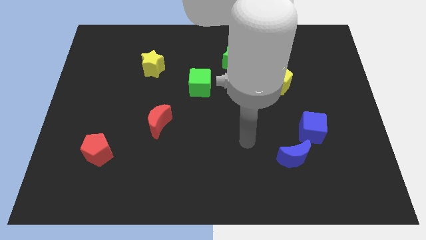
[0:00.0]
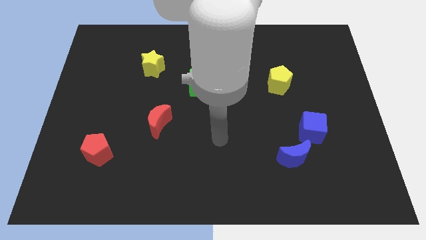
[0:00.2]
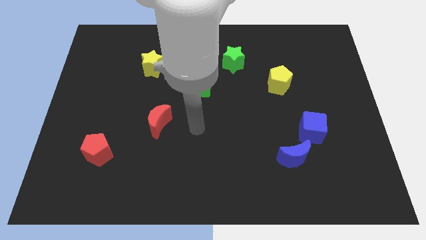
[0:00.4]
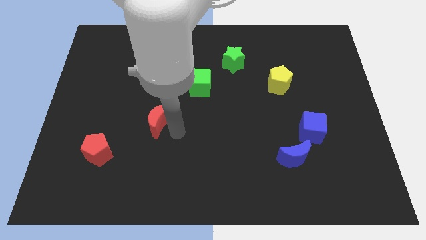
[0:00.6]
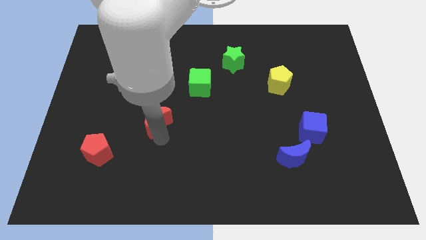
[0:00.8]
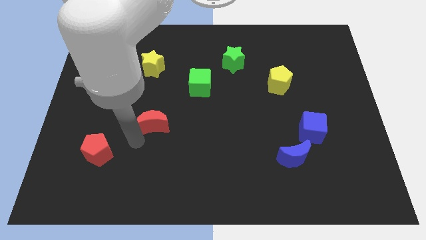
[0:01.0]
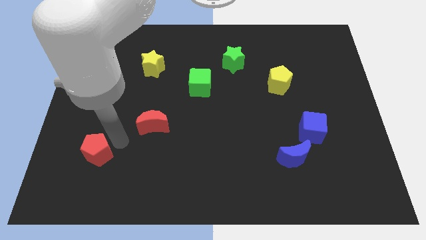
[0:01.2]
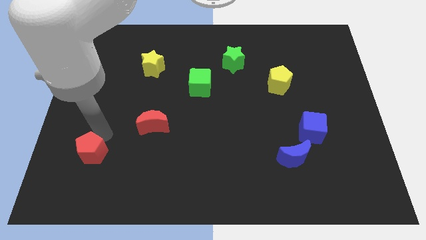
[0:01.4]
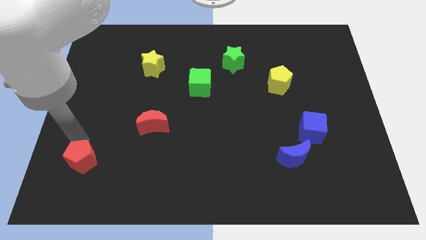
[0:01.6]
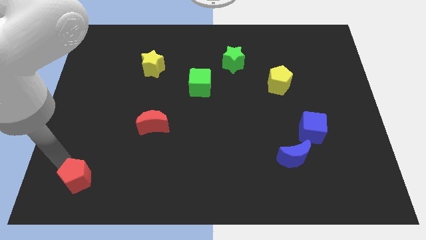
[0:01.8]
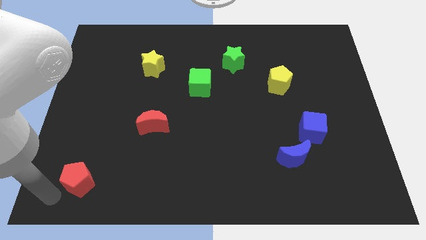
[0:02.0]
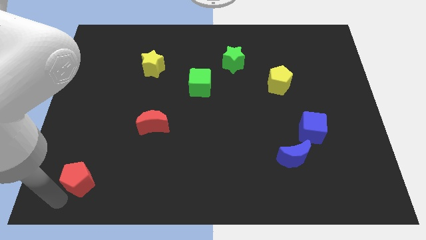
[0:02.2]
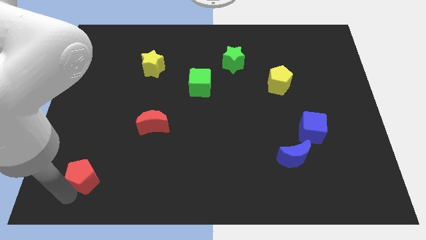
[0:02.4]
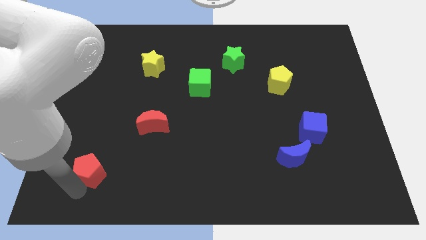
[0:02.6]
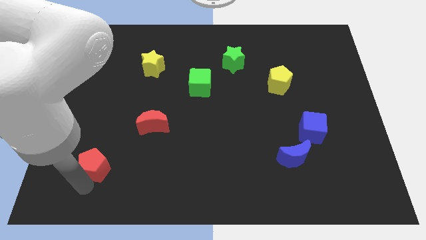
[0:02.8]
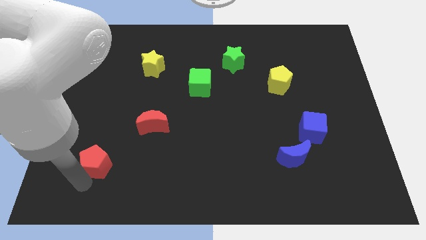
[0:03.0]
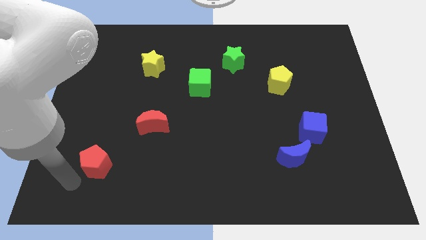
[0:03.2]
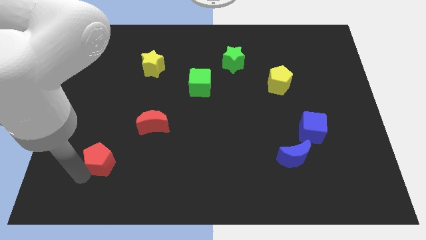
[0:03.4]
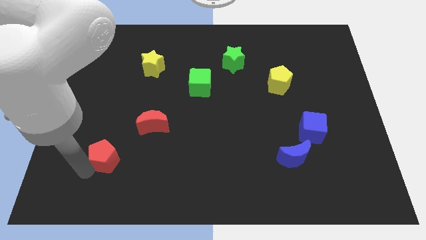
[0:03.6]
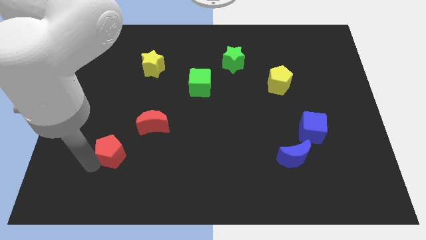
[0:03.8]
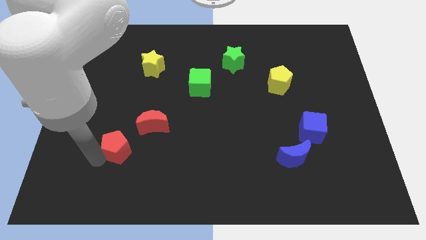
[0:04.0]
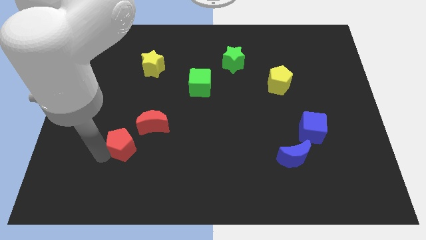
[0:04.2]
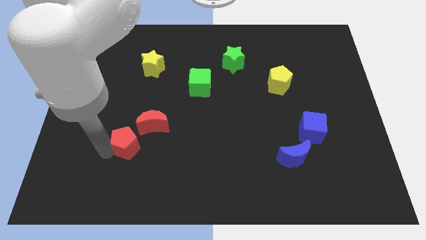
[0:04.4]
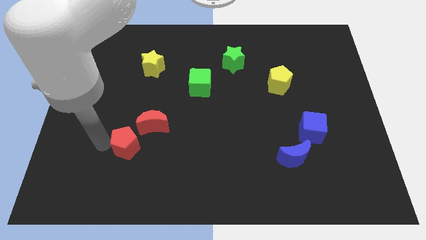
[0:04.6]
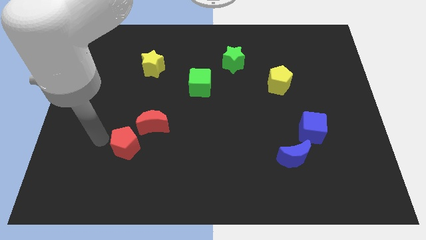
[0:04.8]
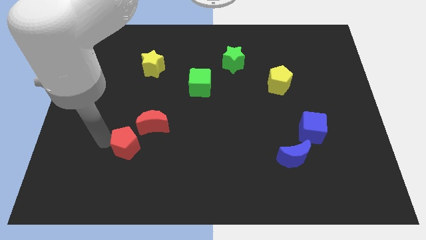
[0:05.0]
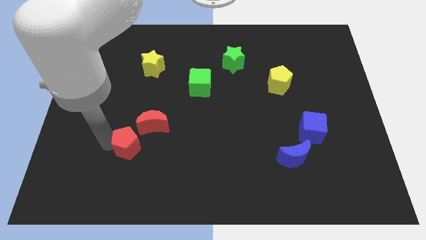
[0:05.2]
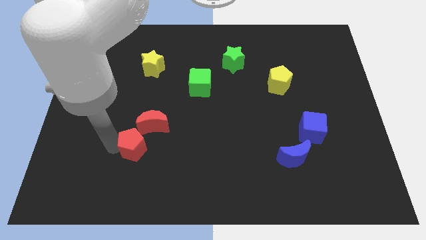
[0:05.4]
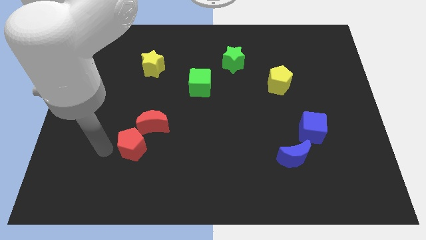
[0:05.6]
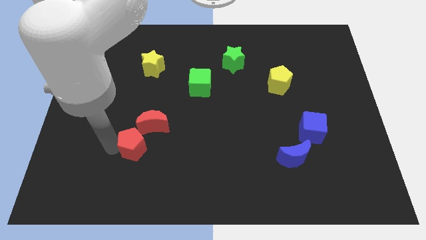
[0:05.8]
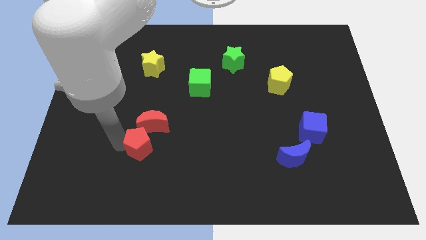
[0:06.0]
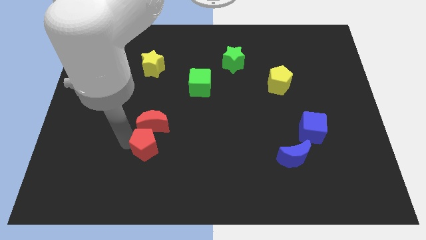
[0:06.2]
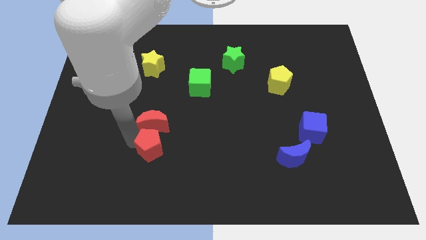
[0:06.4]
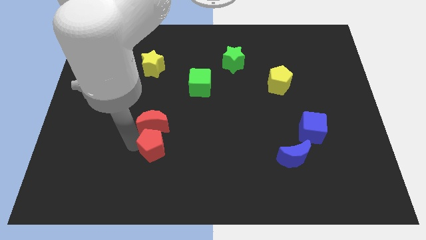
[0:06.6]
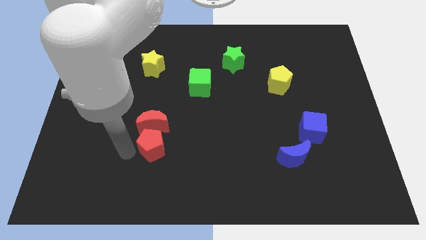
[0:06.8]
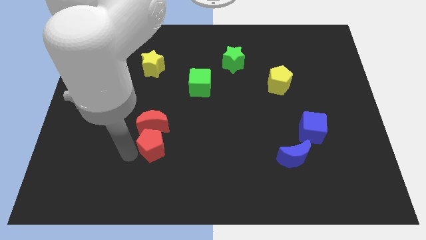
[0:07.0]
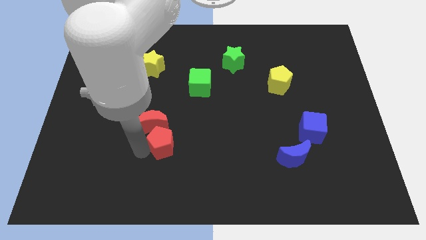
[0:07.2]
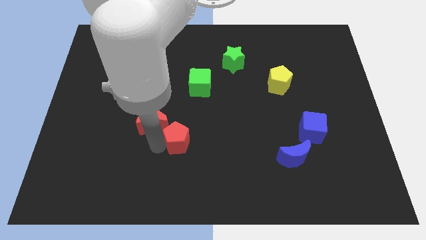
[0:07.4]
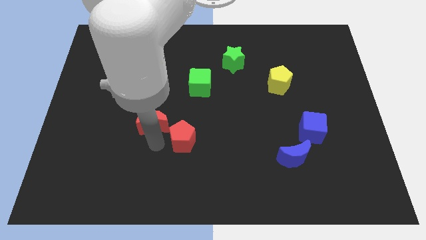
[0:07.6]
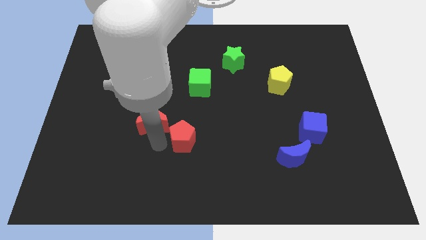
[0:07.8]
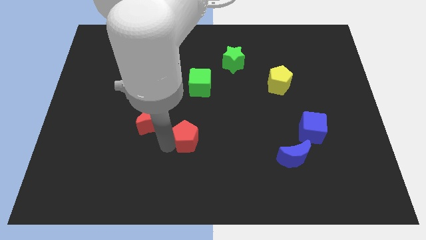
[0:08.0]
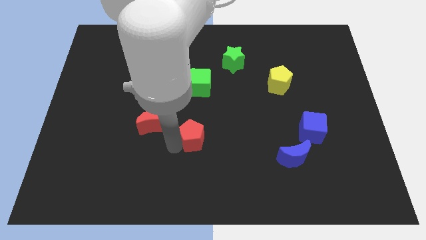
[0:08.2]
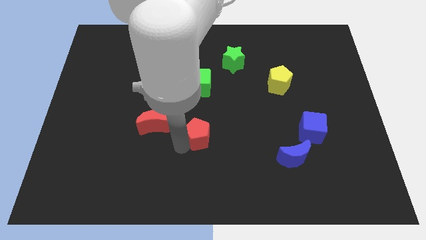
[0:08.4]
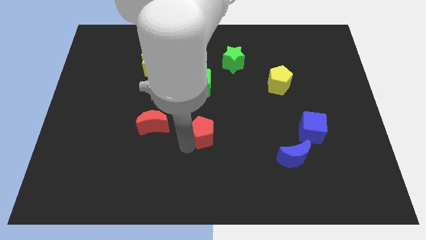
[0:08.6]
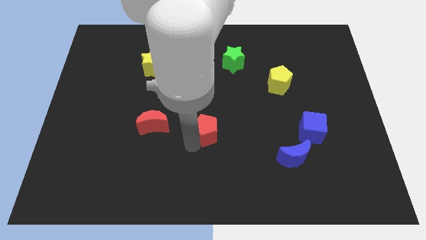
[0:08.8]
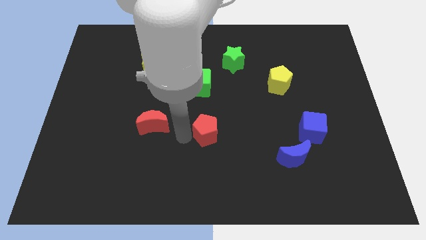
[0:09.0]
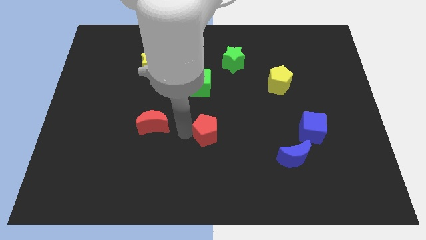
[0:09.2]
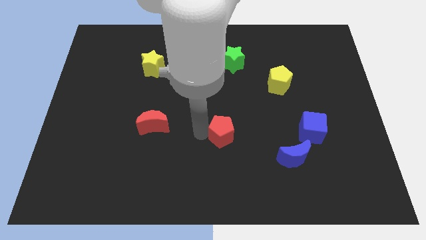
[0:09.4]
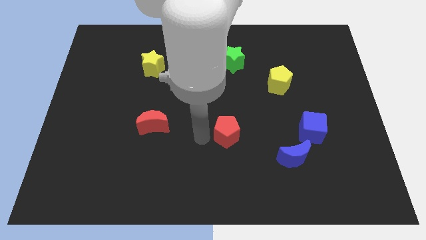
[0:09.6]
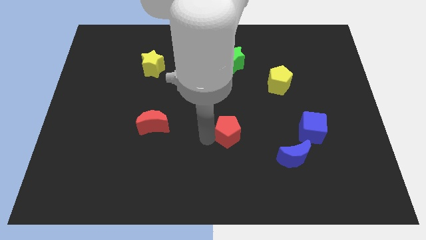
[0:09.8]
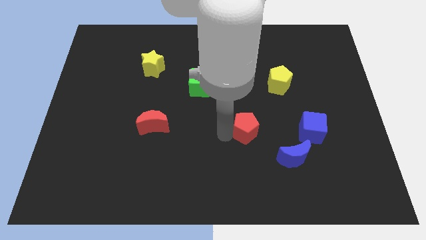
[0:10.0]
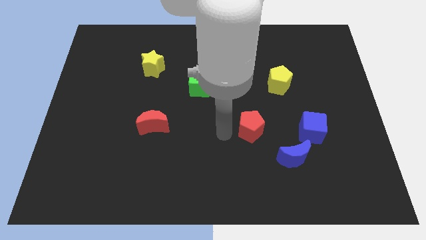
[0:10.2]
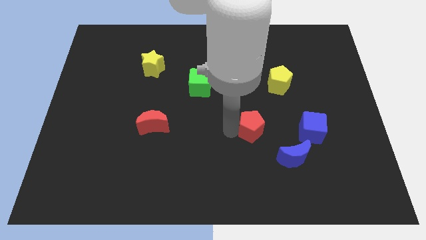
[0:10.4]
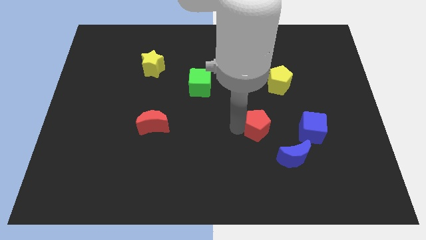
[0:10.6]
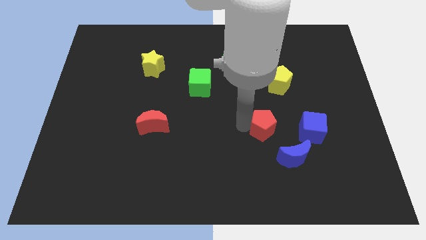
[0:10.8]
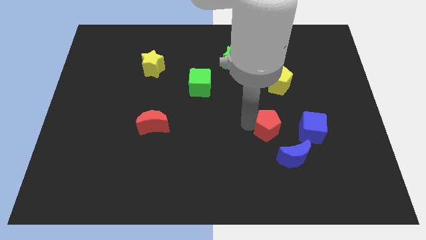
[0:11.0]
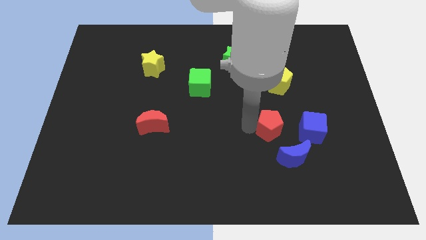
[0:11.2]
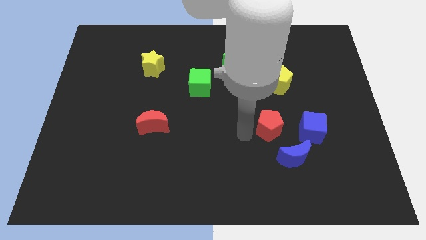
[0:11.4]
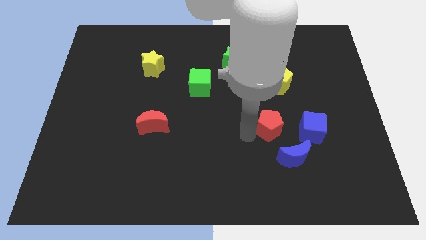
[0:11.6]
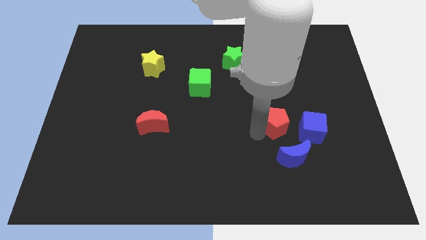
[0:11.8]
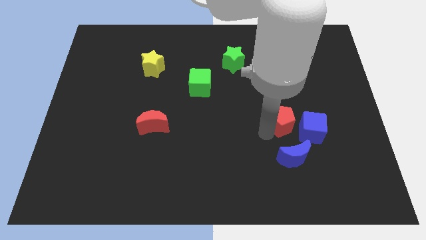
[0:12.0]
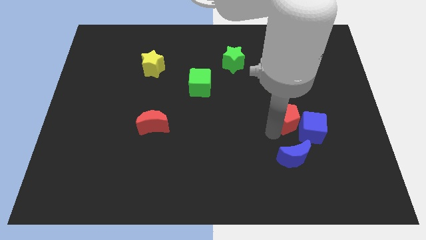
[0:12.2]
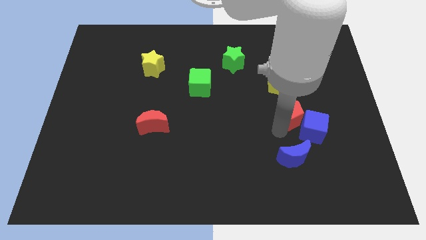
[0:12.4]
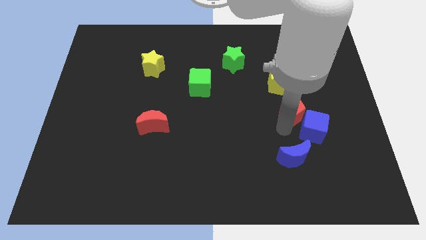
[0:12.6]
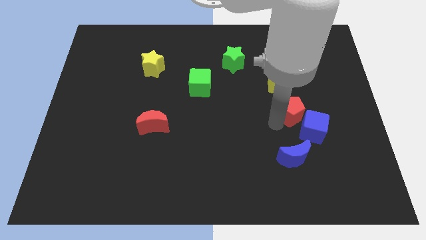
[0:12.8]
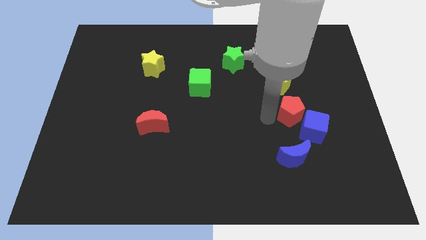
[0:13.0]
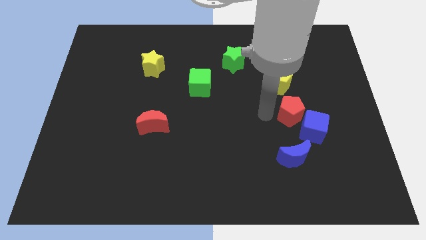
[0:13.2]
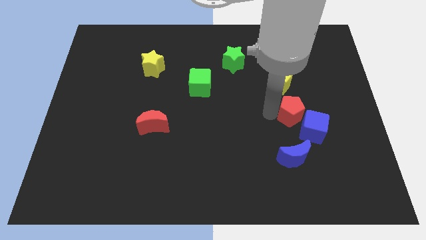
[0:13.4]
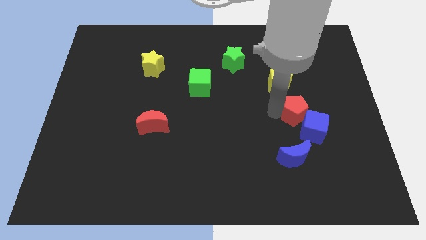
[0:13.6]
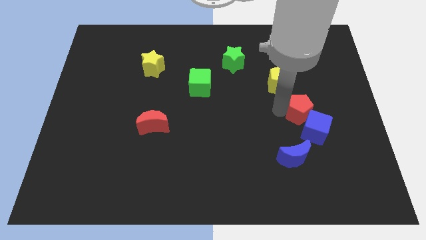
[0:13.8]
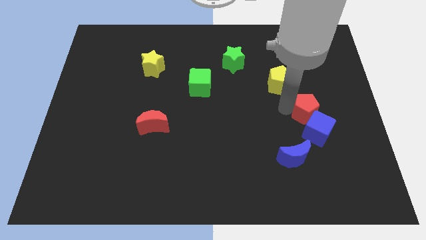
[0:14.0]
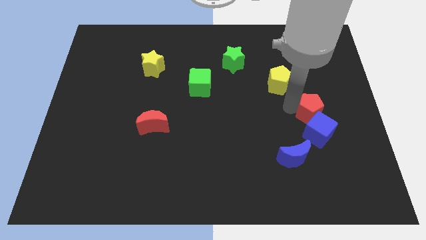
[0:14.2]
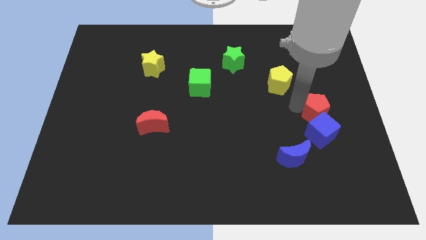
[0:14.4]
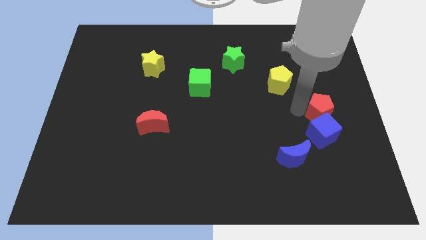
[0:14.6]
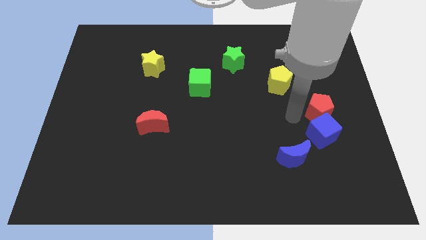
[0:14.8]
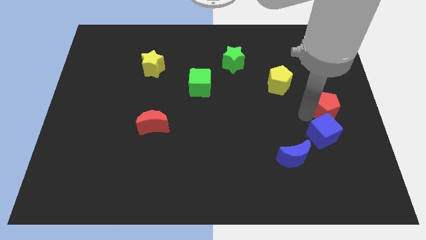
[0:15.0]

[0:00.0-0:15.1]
put the red pentagon to the right side
